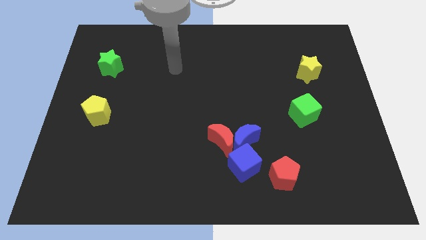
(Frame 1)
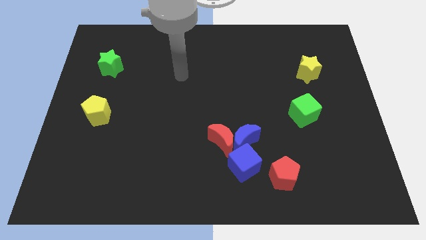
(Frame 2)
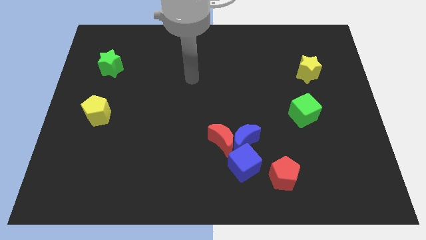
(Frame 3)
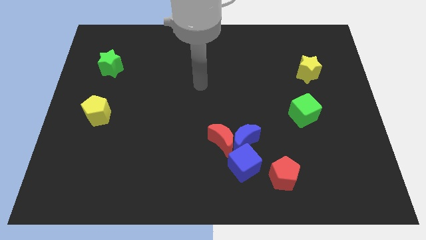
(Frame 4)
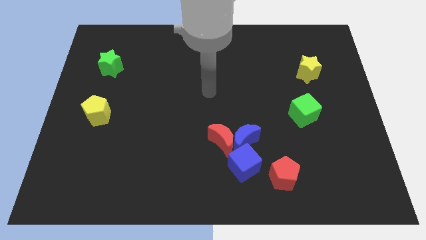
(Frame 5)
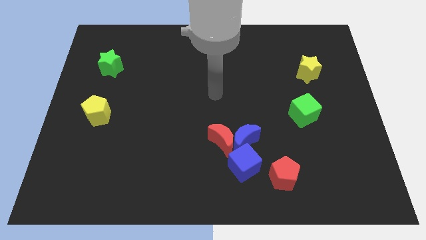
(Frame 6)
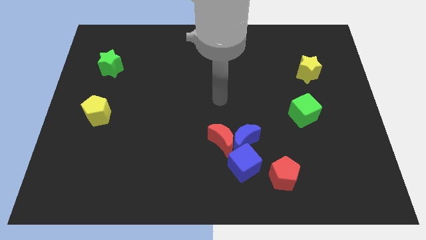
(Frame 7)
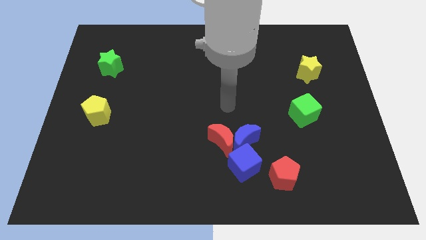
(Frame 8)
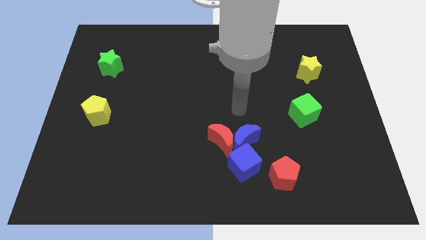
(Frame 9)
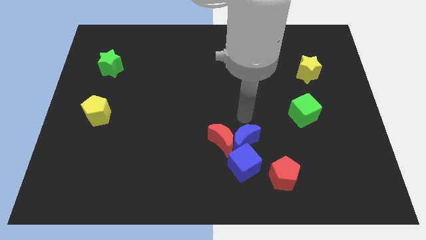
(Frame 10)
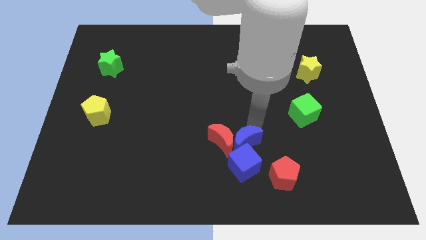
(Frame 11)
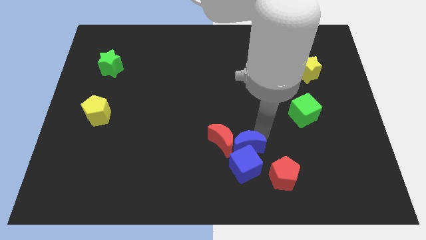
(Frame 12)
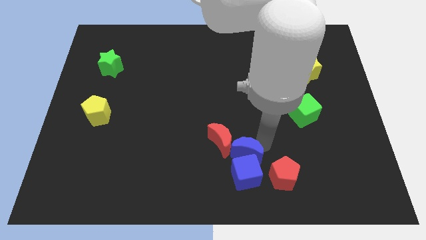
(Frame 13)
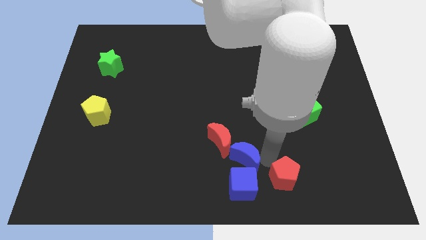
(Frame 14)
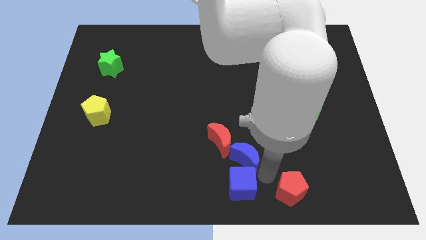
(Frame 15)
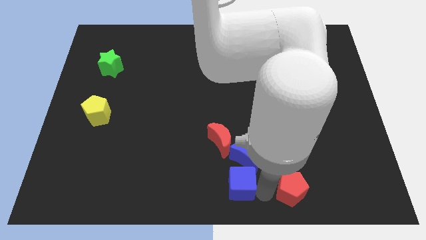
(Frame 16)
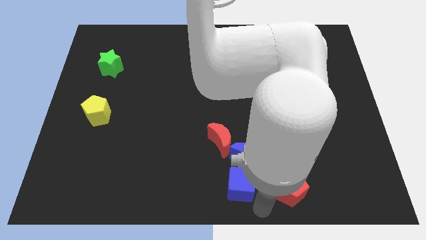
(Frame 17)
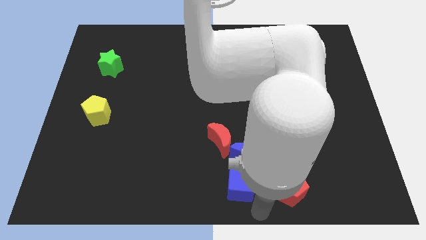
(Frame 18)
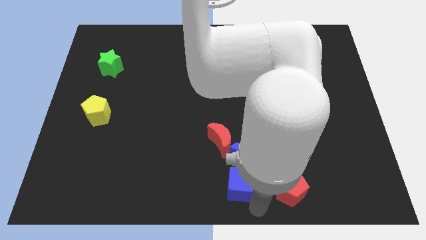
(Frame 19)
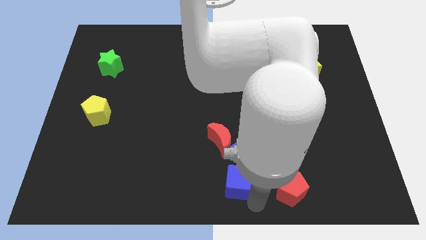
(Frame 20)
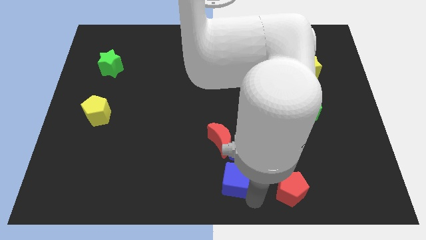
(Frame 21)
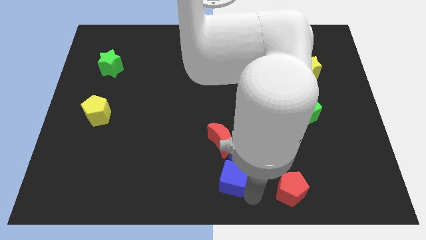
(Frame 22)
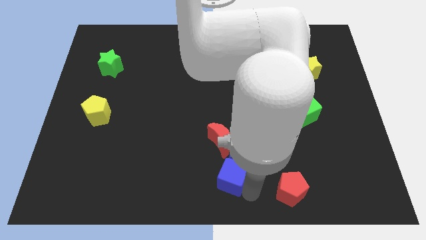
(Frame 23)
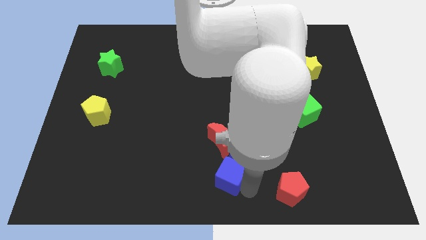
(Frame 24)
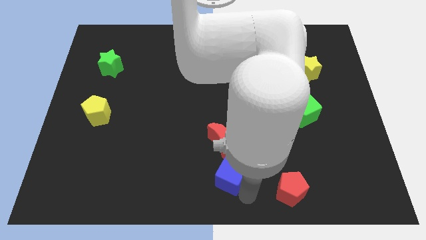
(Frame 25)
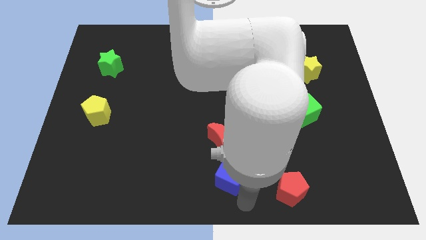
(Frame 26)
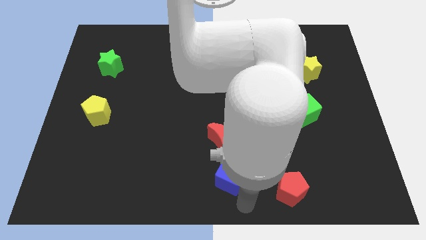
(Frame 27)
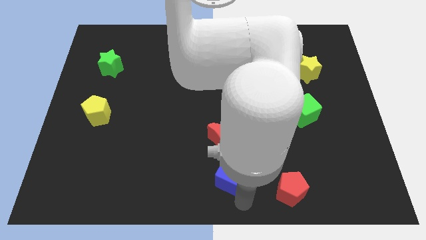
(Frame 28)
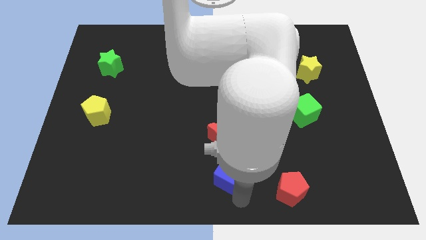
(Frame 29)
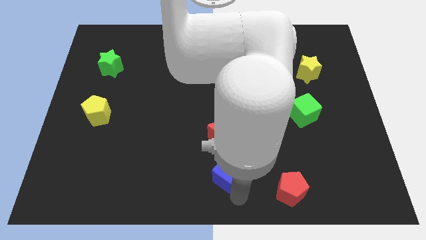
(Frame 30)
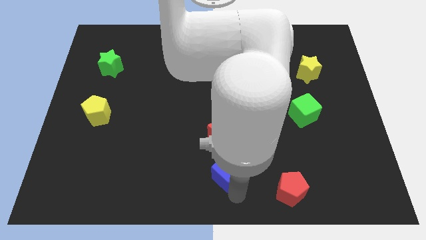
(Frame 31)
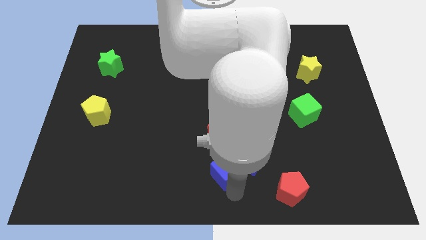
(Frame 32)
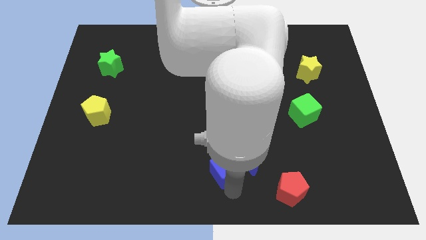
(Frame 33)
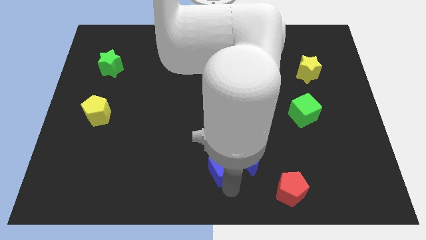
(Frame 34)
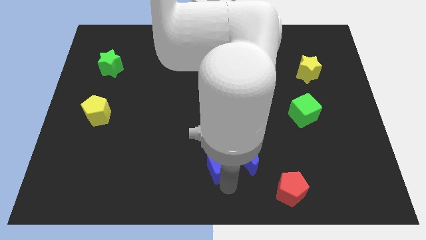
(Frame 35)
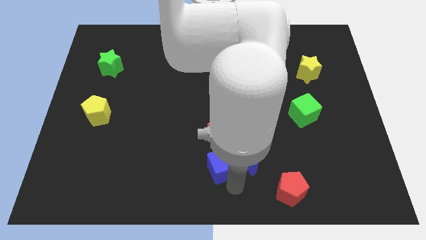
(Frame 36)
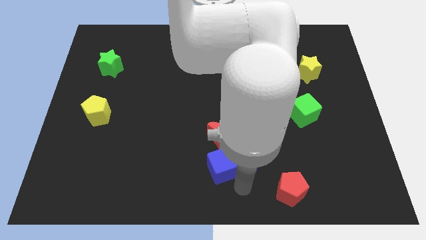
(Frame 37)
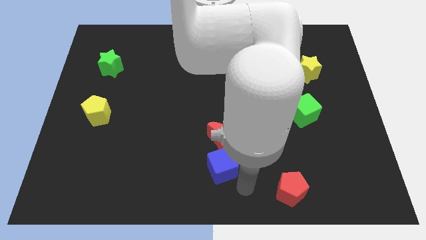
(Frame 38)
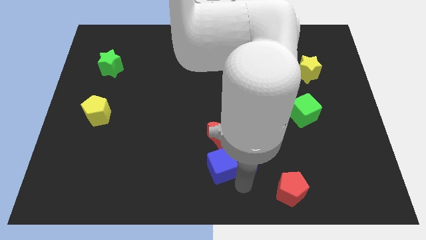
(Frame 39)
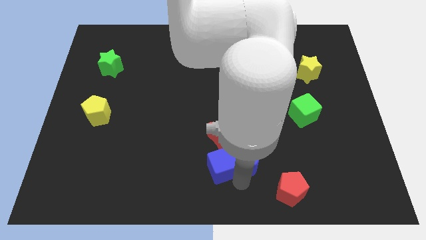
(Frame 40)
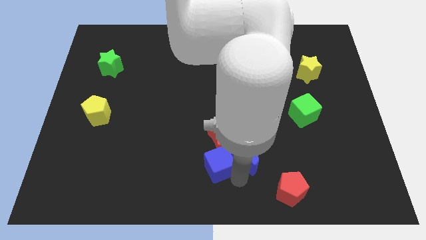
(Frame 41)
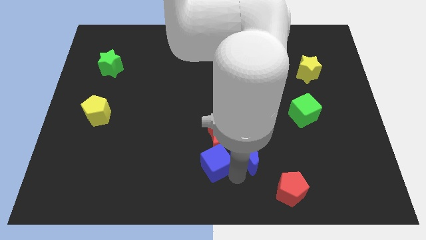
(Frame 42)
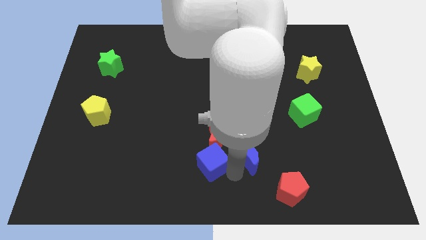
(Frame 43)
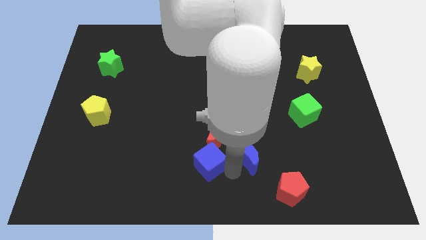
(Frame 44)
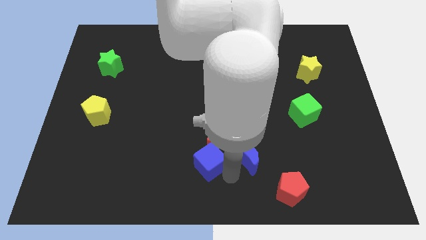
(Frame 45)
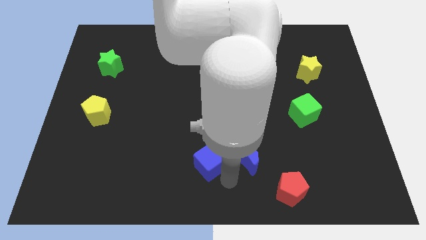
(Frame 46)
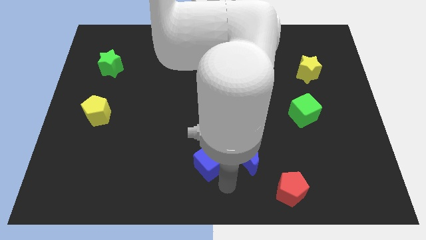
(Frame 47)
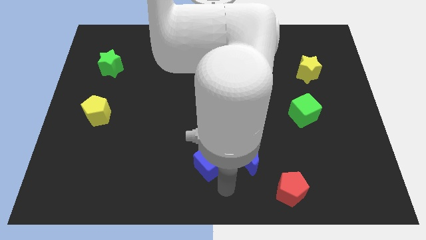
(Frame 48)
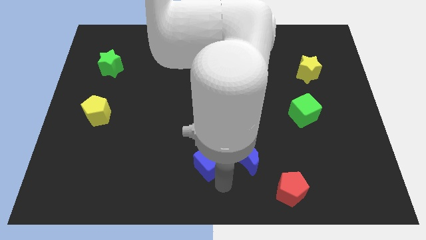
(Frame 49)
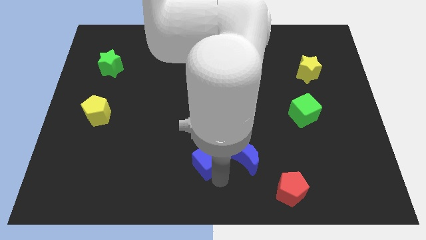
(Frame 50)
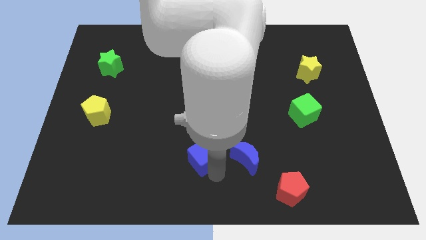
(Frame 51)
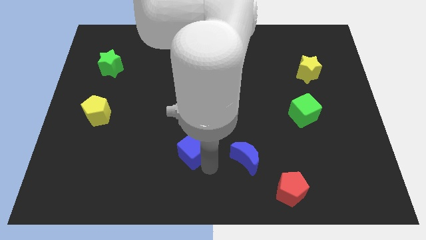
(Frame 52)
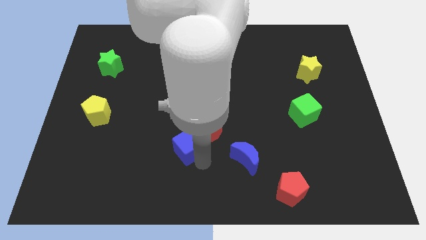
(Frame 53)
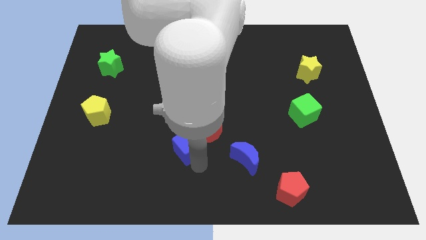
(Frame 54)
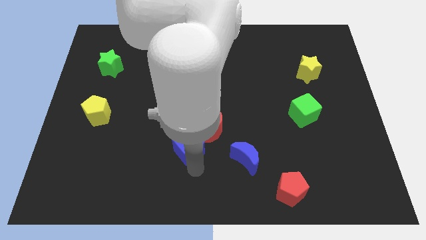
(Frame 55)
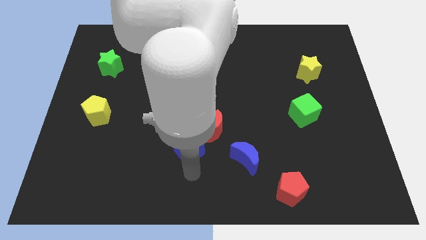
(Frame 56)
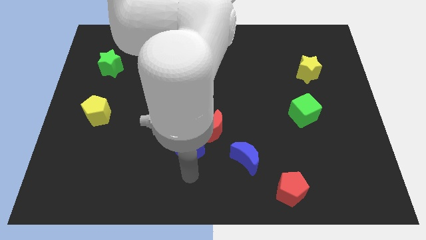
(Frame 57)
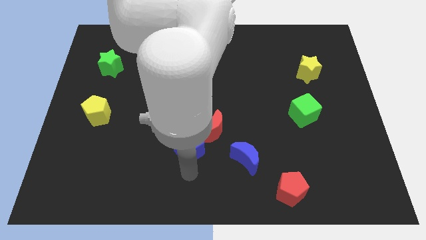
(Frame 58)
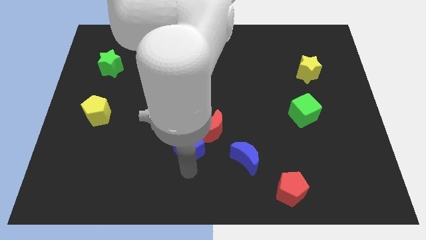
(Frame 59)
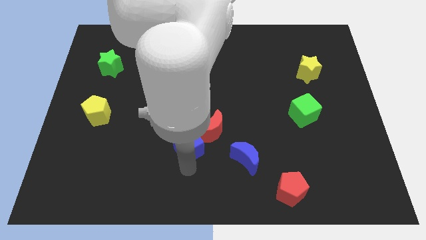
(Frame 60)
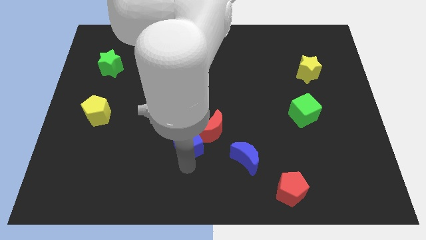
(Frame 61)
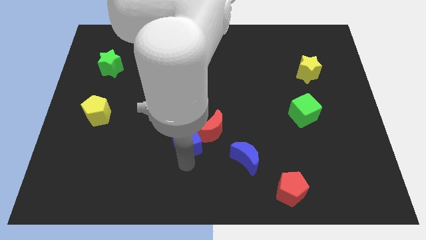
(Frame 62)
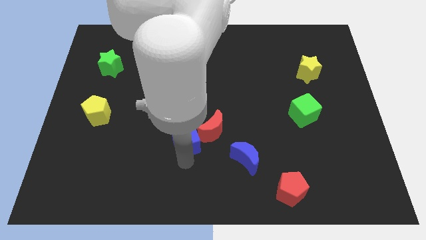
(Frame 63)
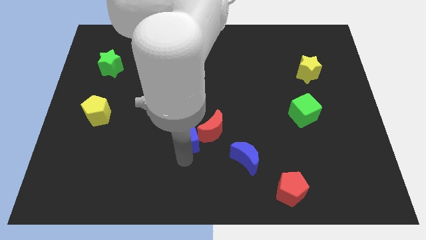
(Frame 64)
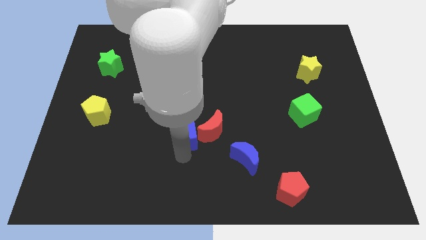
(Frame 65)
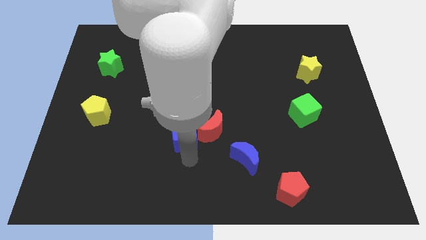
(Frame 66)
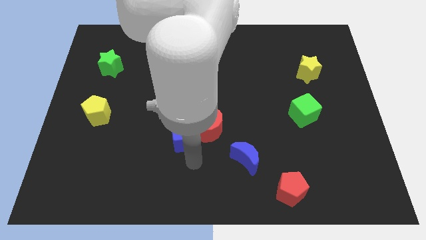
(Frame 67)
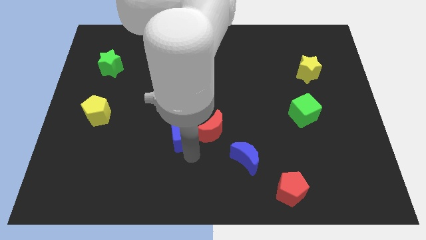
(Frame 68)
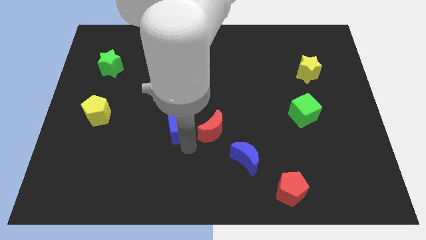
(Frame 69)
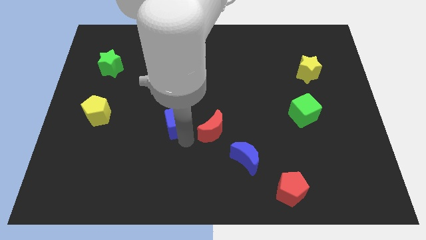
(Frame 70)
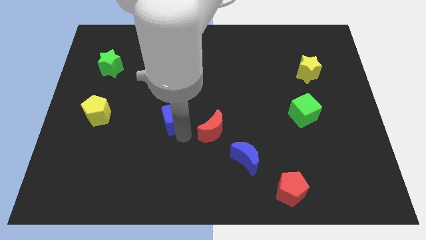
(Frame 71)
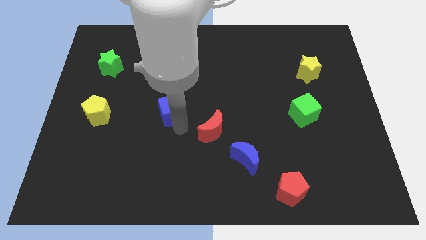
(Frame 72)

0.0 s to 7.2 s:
push the blue cube upwards and to the left diagonally

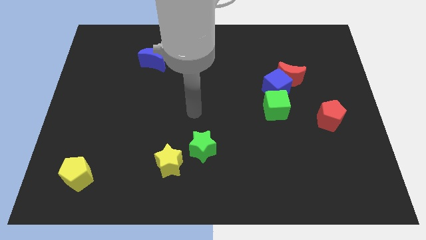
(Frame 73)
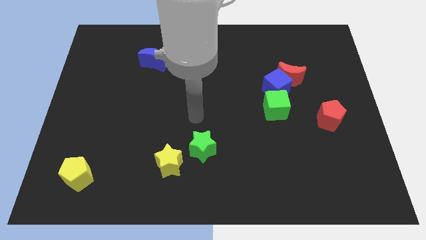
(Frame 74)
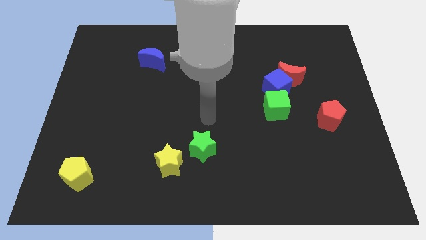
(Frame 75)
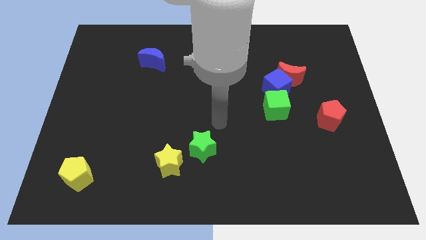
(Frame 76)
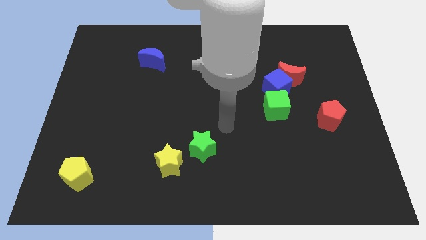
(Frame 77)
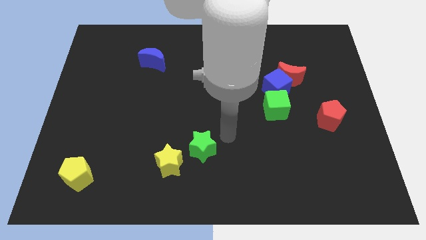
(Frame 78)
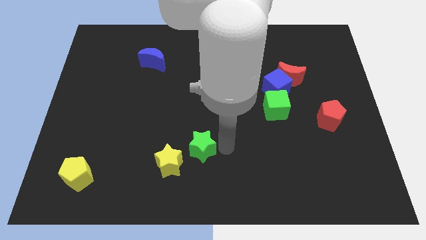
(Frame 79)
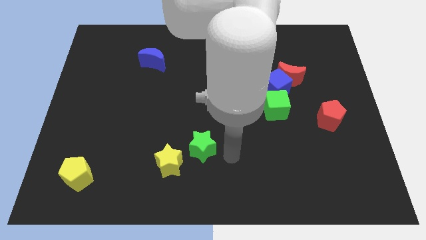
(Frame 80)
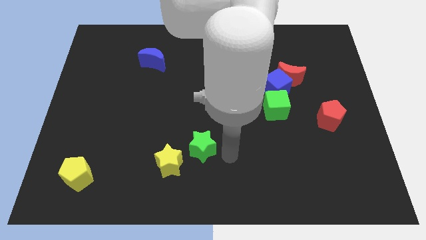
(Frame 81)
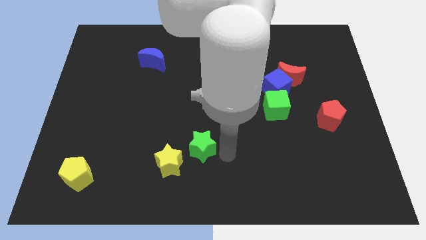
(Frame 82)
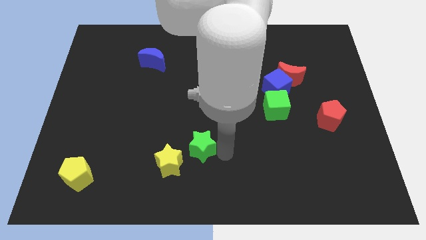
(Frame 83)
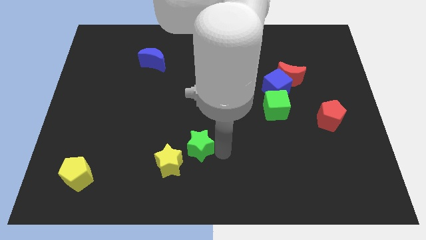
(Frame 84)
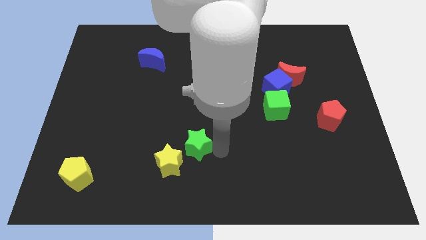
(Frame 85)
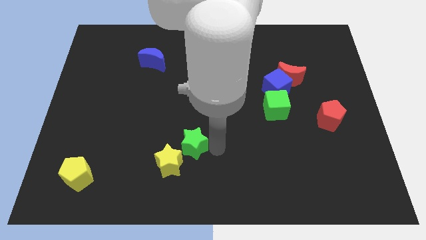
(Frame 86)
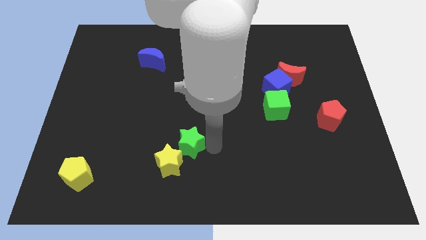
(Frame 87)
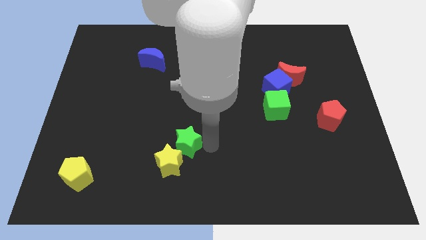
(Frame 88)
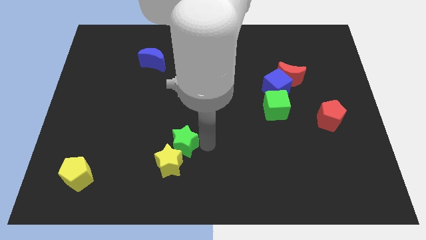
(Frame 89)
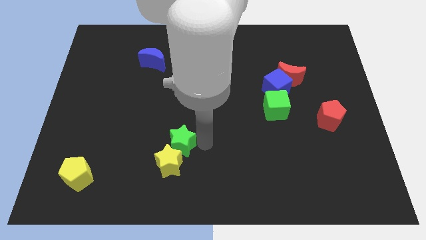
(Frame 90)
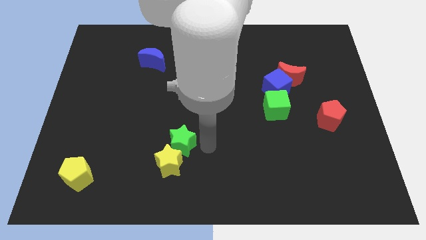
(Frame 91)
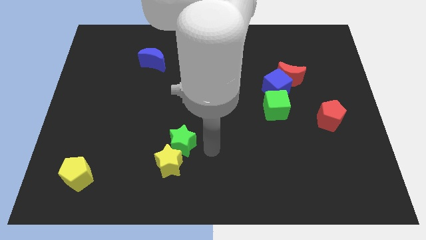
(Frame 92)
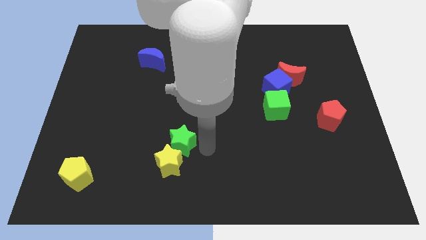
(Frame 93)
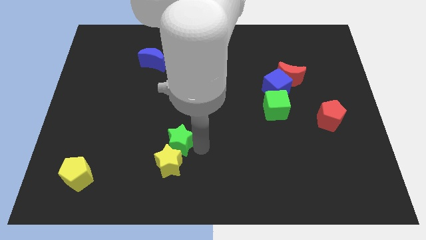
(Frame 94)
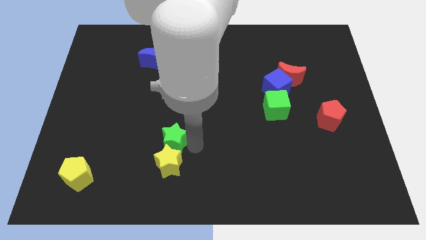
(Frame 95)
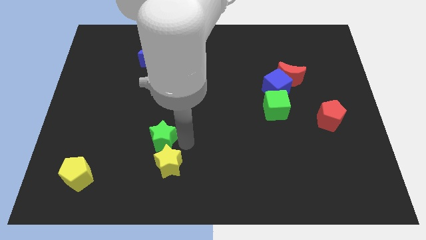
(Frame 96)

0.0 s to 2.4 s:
slide the green star a bit to the left
